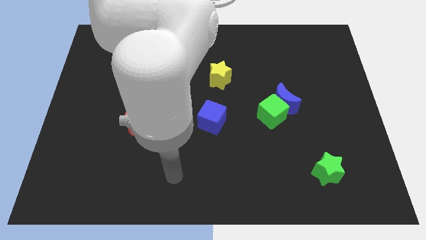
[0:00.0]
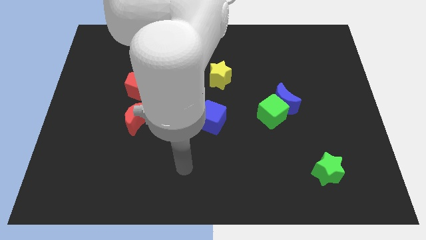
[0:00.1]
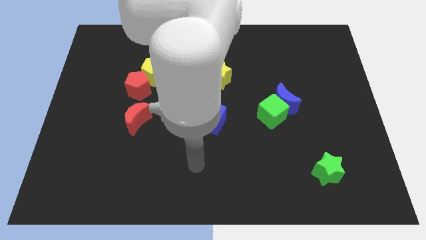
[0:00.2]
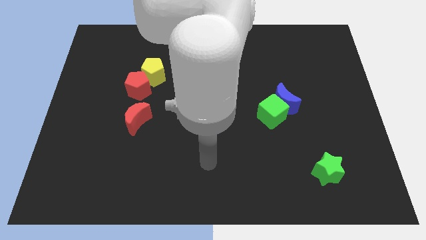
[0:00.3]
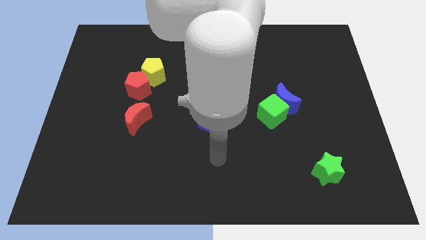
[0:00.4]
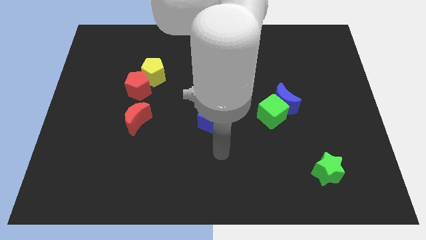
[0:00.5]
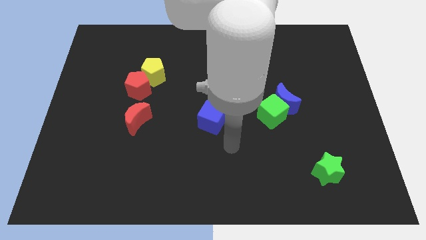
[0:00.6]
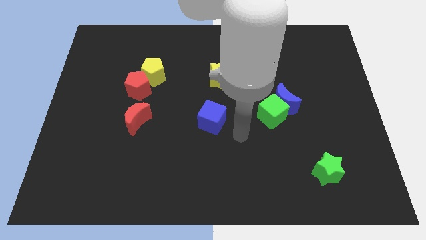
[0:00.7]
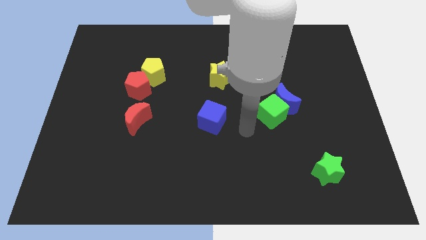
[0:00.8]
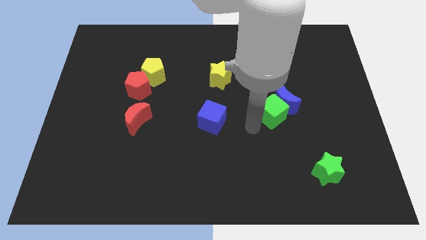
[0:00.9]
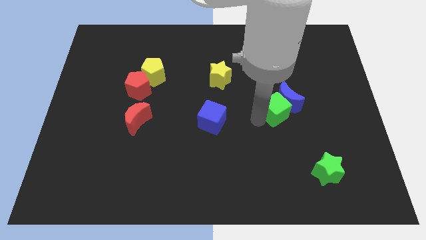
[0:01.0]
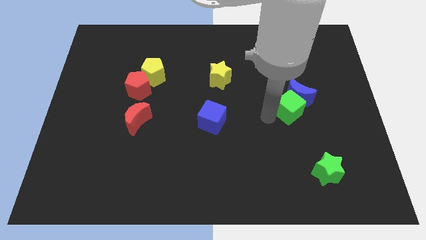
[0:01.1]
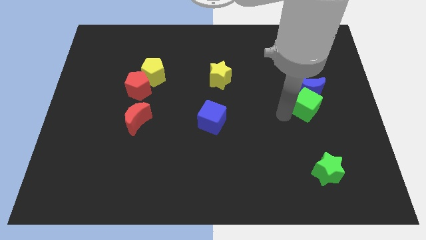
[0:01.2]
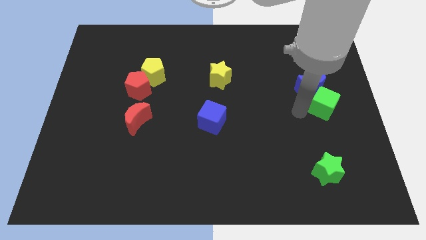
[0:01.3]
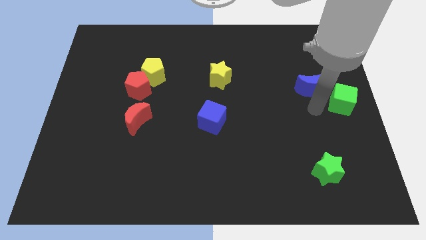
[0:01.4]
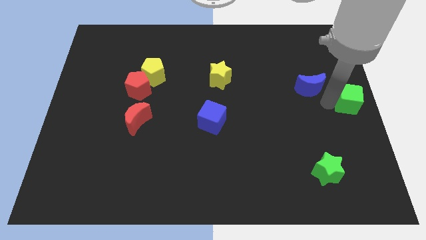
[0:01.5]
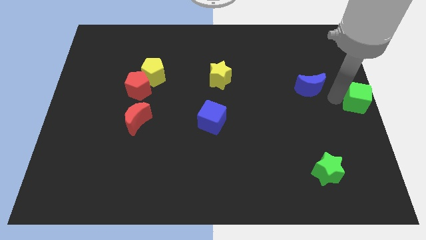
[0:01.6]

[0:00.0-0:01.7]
move the blue moon away from the green cube

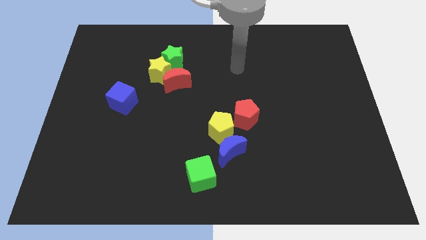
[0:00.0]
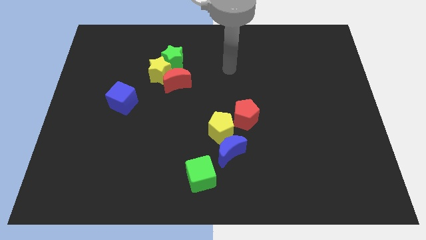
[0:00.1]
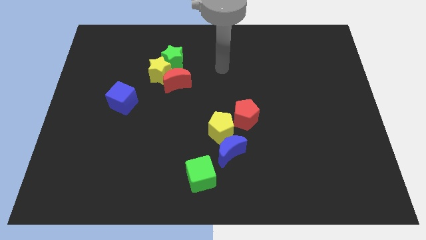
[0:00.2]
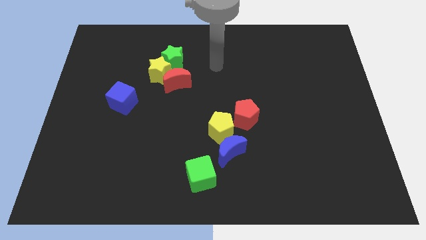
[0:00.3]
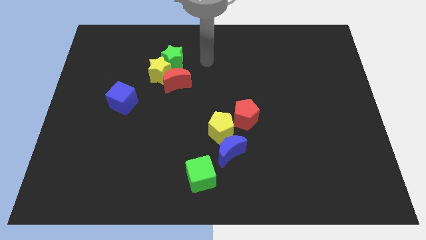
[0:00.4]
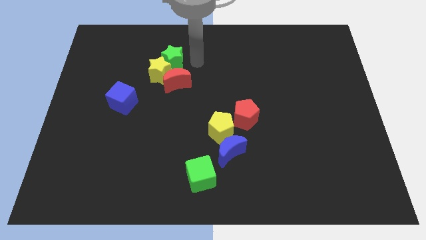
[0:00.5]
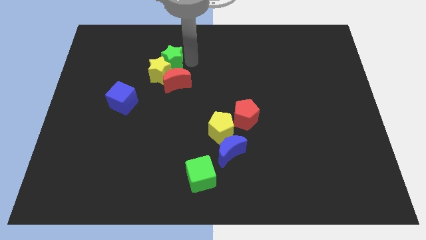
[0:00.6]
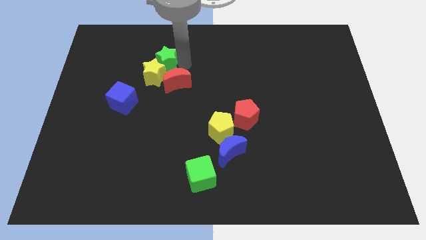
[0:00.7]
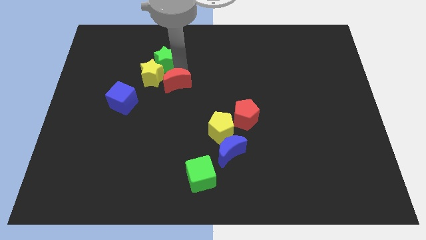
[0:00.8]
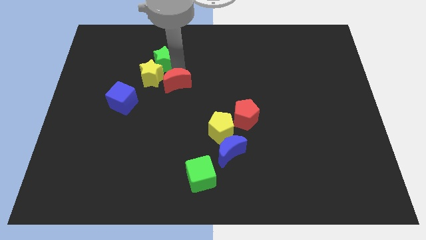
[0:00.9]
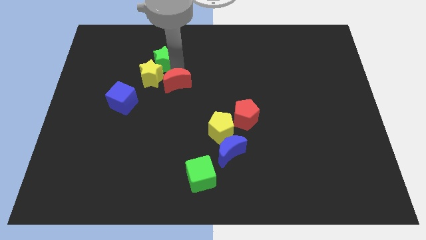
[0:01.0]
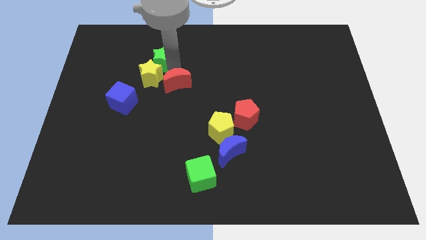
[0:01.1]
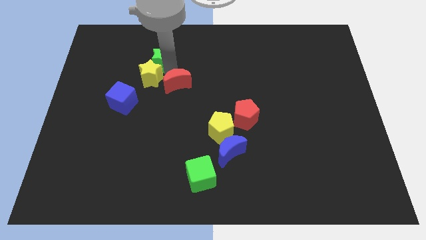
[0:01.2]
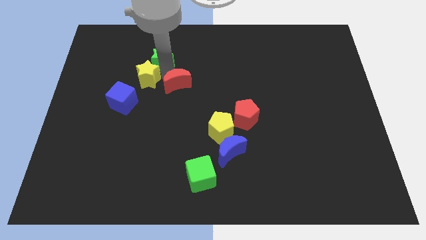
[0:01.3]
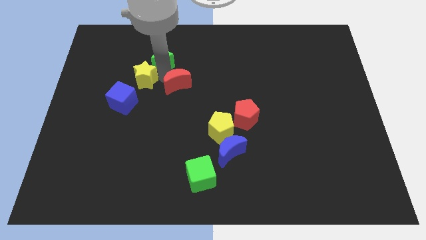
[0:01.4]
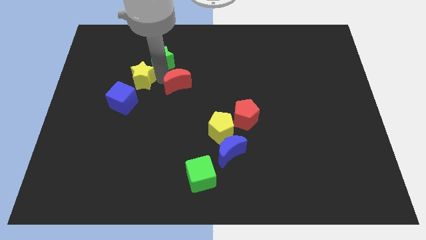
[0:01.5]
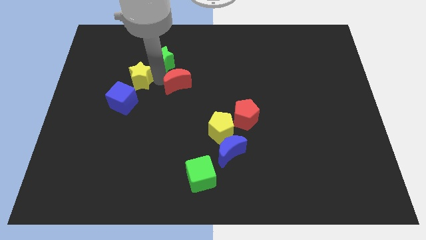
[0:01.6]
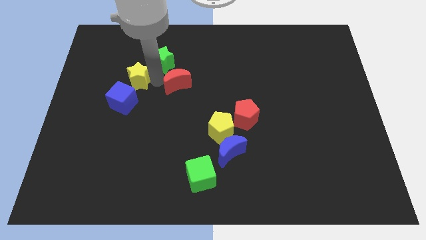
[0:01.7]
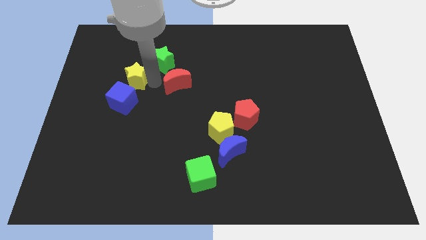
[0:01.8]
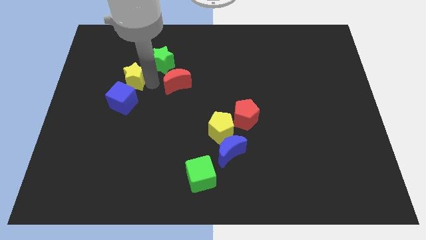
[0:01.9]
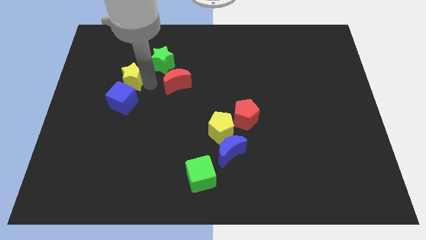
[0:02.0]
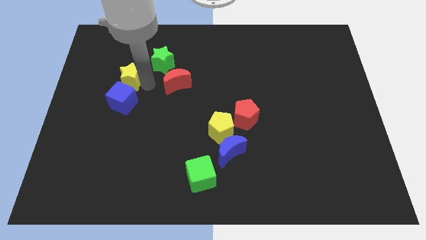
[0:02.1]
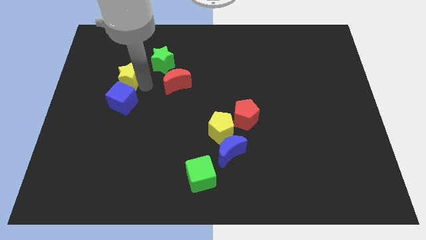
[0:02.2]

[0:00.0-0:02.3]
move the yellow star away from the red moon and green star

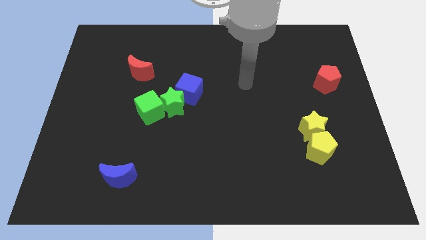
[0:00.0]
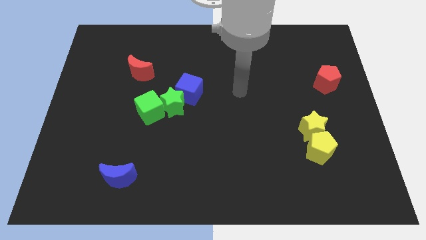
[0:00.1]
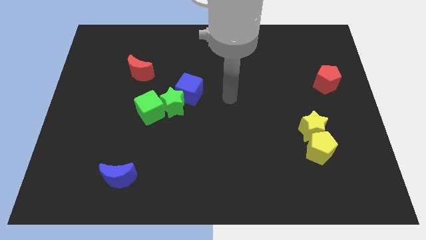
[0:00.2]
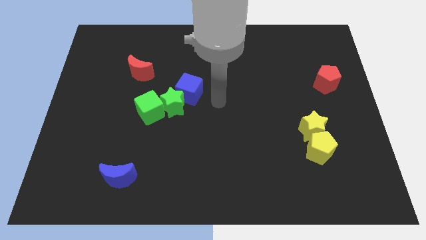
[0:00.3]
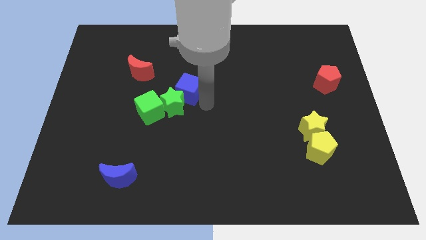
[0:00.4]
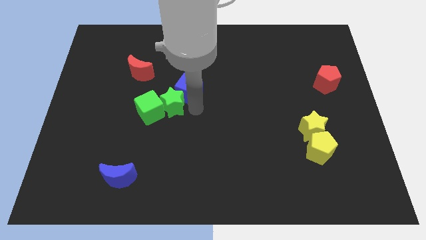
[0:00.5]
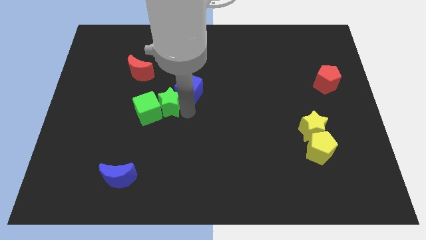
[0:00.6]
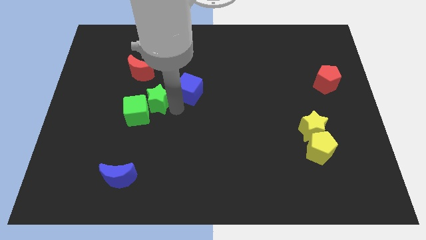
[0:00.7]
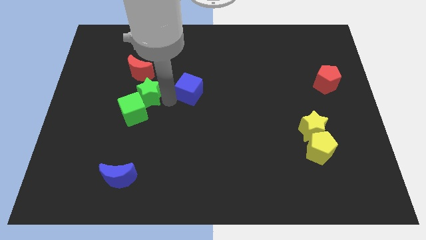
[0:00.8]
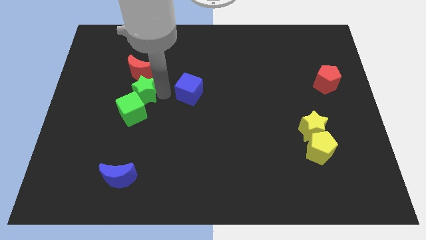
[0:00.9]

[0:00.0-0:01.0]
move the blue cube away from the green star

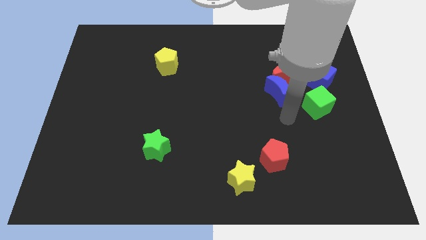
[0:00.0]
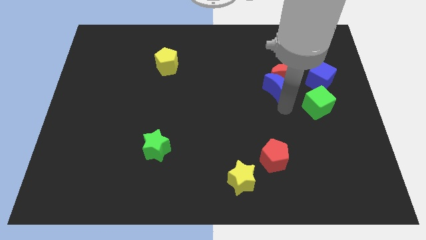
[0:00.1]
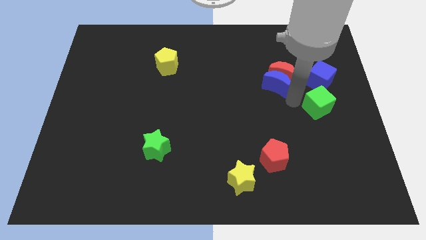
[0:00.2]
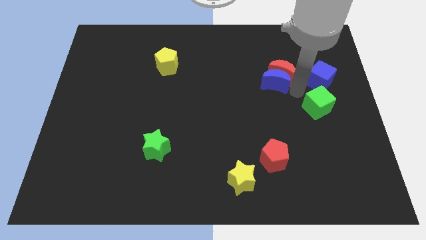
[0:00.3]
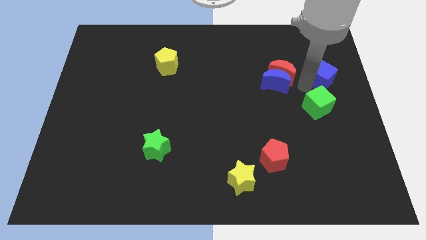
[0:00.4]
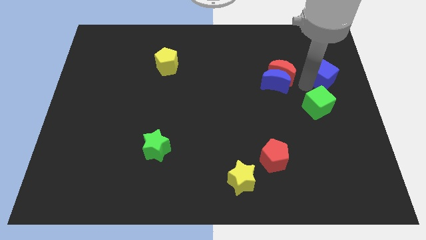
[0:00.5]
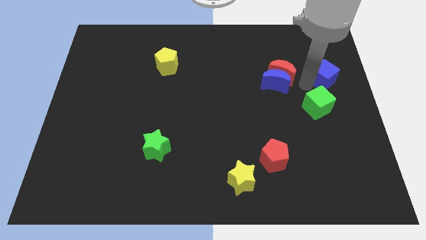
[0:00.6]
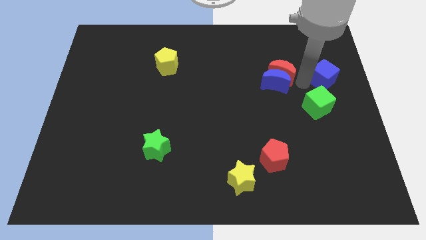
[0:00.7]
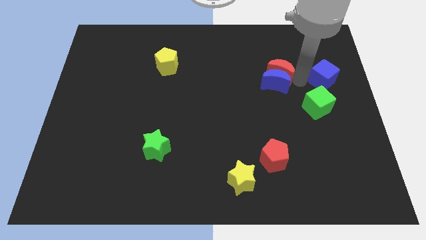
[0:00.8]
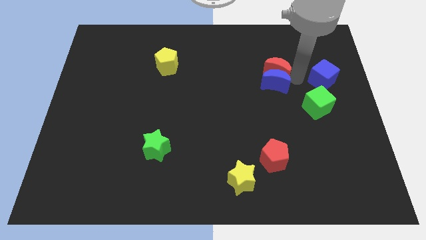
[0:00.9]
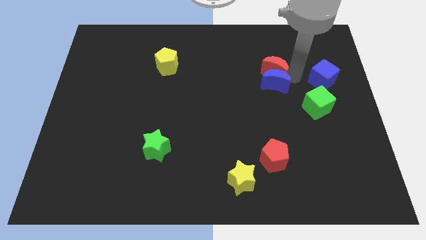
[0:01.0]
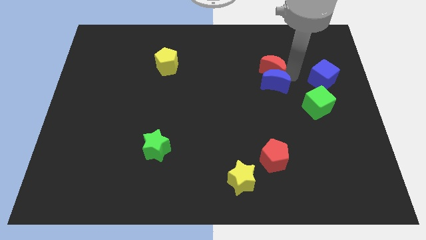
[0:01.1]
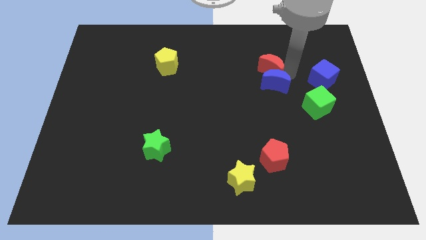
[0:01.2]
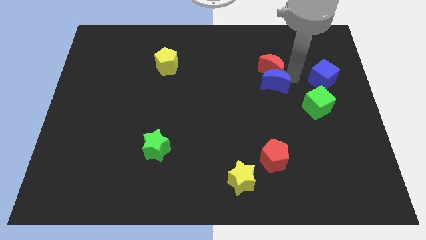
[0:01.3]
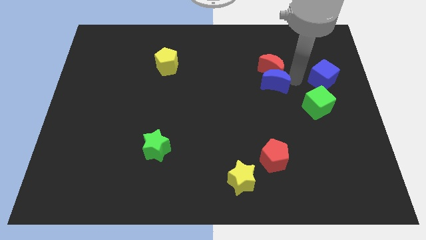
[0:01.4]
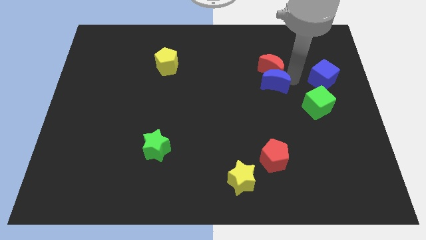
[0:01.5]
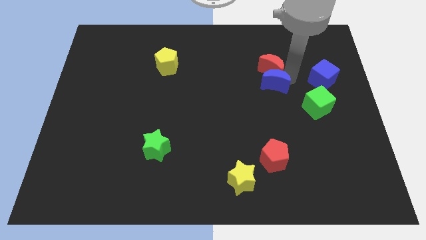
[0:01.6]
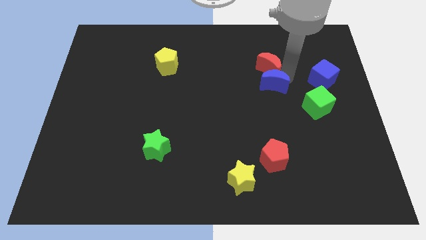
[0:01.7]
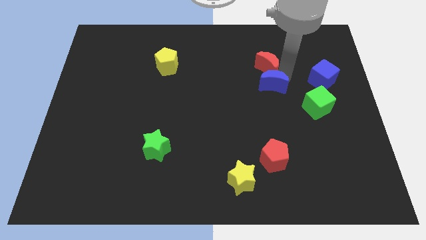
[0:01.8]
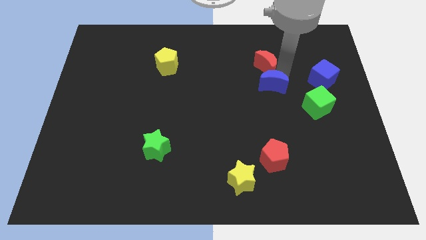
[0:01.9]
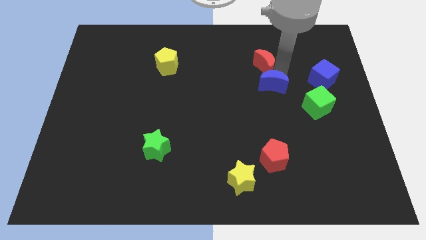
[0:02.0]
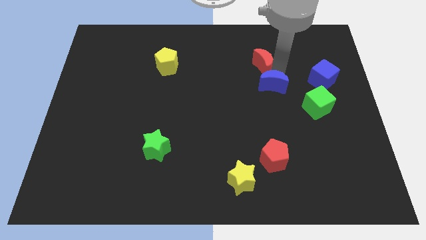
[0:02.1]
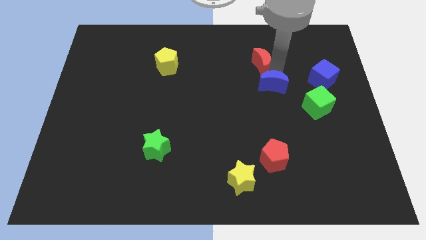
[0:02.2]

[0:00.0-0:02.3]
pull the red moon apart from the blue moon and blue cube

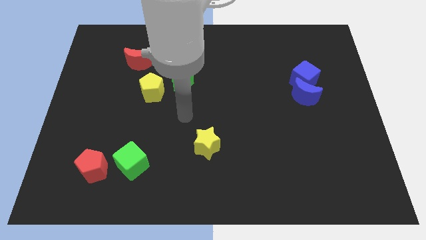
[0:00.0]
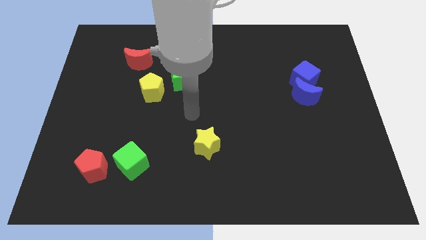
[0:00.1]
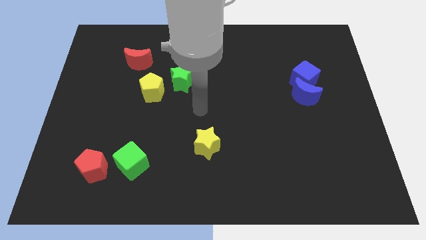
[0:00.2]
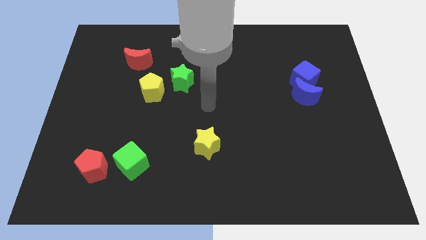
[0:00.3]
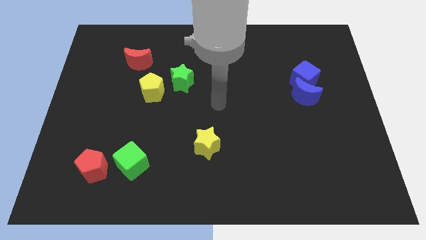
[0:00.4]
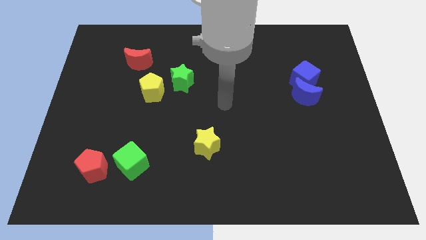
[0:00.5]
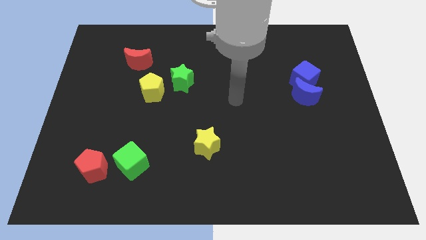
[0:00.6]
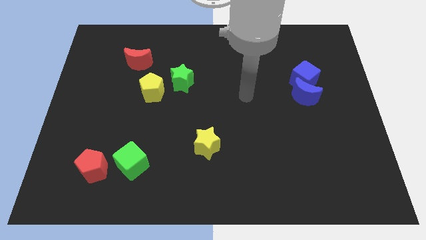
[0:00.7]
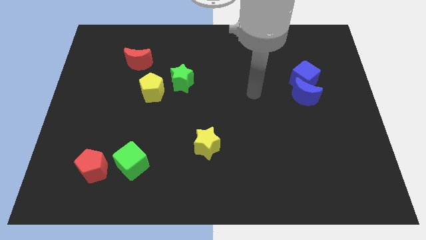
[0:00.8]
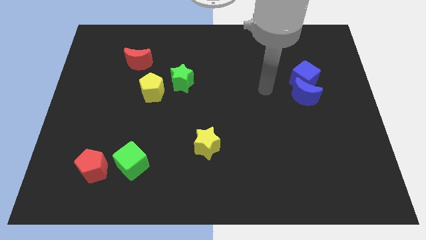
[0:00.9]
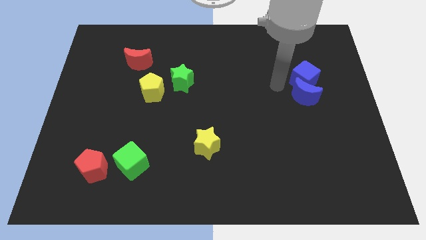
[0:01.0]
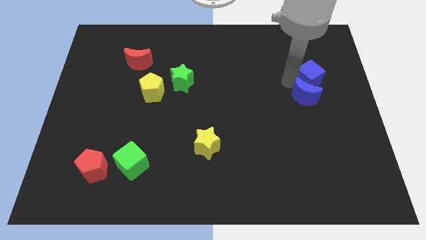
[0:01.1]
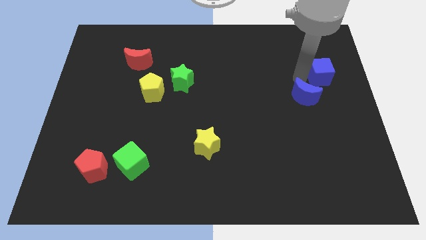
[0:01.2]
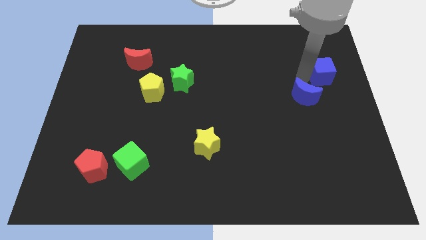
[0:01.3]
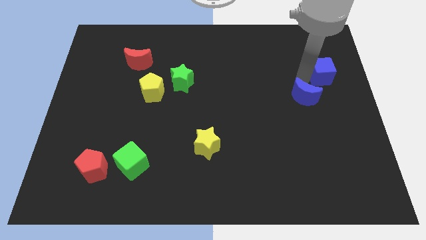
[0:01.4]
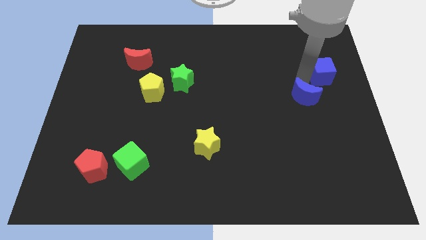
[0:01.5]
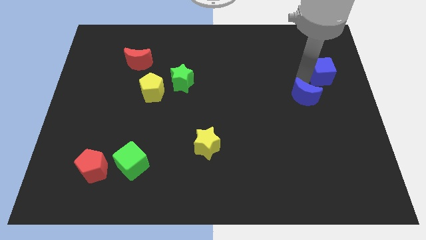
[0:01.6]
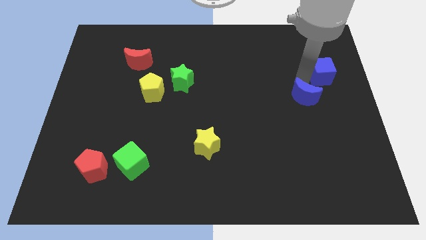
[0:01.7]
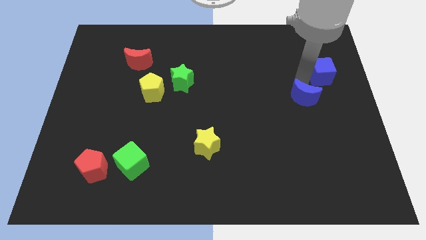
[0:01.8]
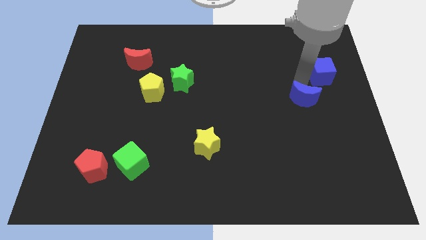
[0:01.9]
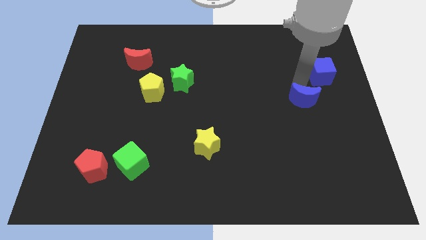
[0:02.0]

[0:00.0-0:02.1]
move the blue moon away from the blue cube

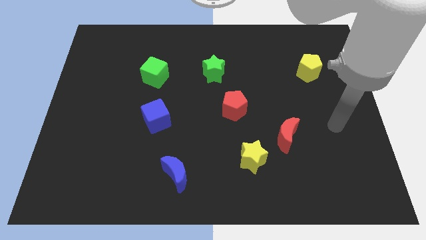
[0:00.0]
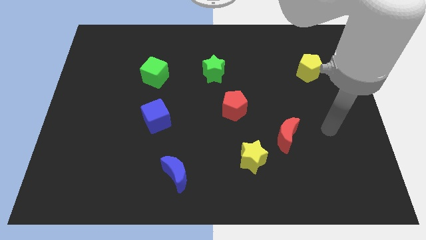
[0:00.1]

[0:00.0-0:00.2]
move the red moon away from the yellow star
